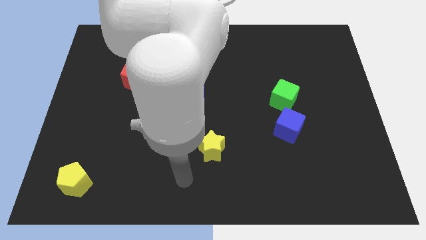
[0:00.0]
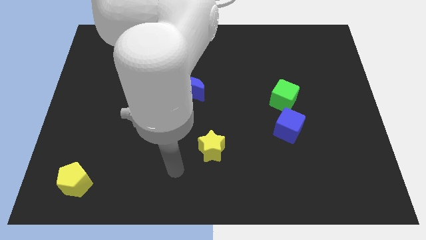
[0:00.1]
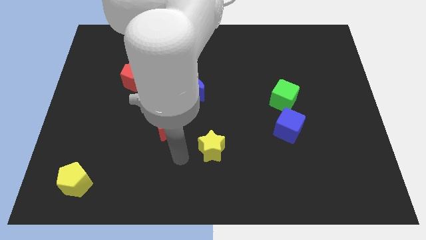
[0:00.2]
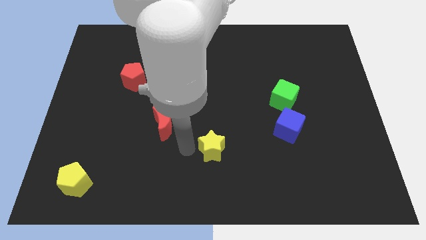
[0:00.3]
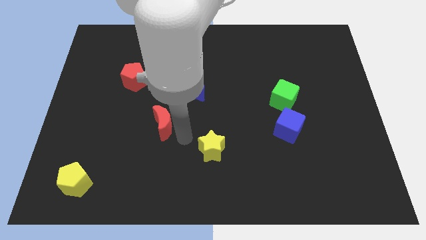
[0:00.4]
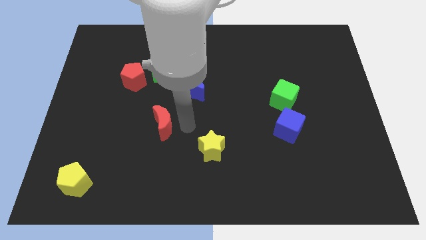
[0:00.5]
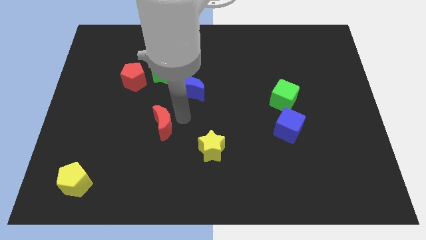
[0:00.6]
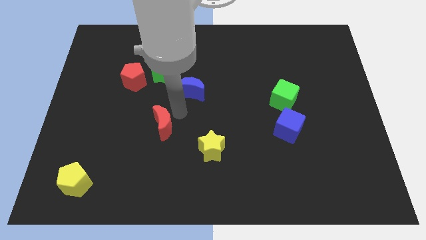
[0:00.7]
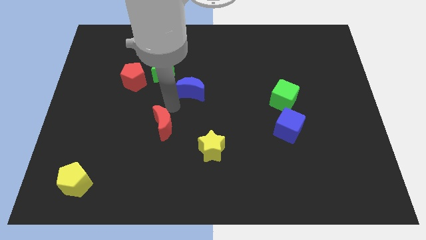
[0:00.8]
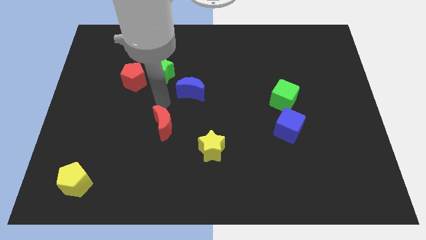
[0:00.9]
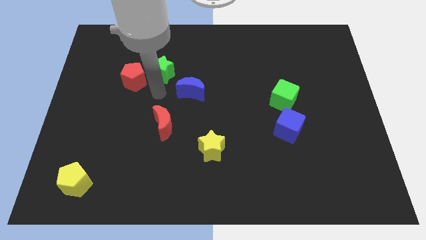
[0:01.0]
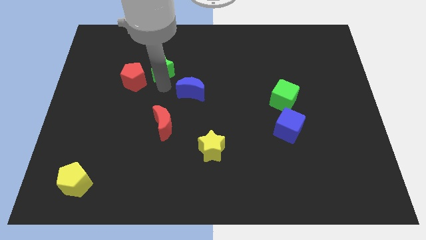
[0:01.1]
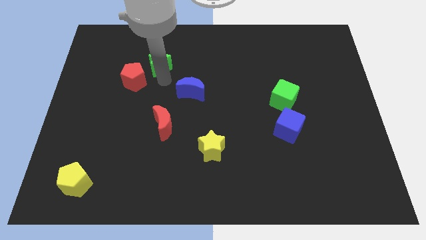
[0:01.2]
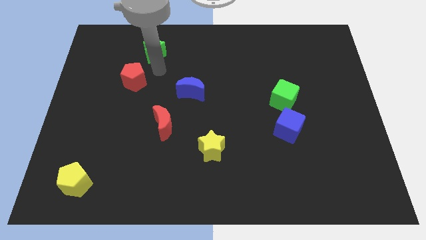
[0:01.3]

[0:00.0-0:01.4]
pull the red pentagon apart from the green star

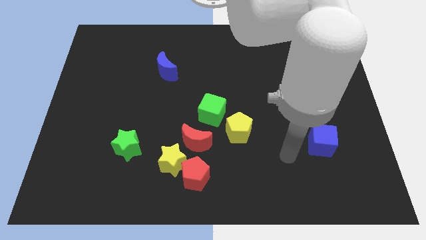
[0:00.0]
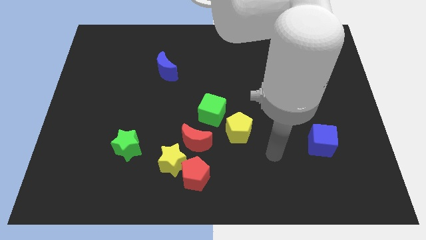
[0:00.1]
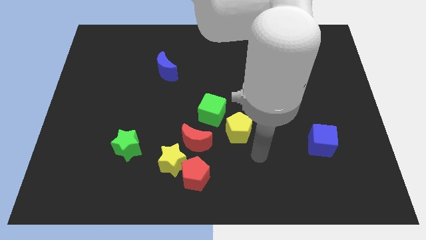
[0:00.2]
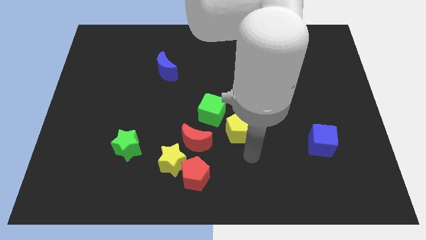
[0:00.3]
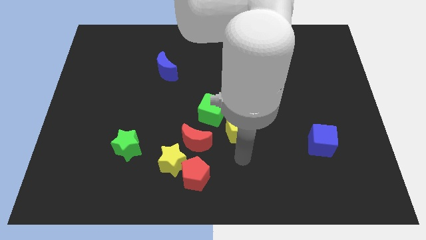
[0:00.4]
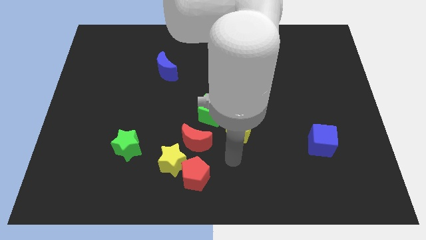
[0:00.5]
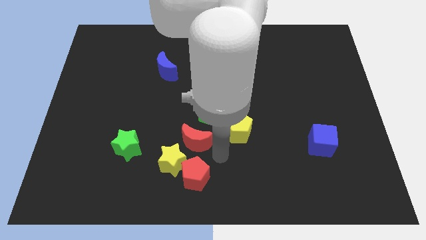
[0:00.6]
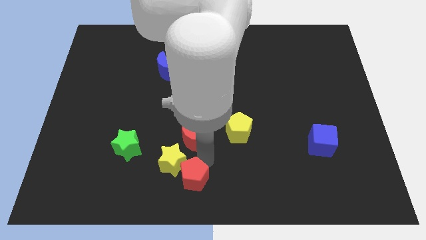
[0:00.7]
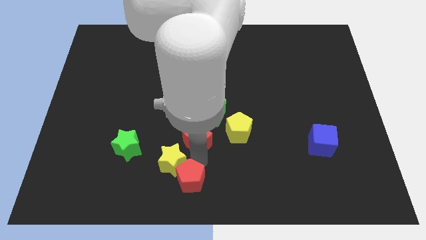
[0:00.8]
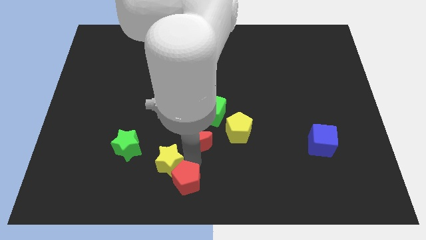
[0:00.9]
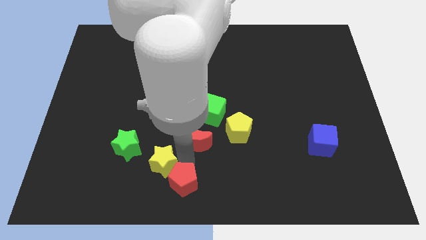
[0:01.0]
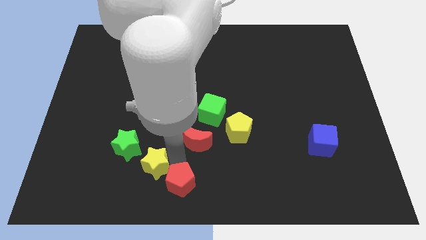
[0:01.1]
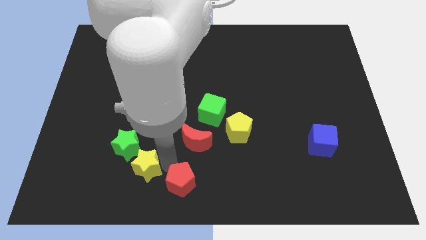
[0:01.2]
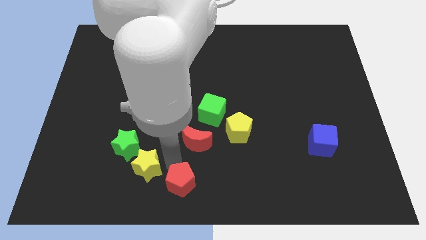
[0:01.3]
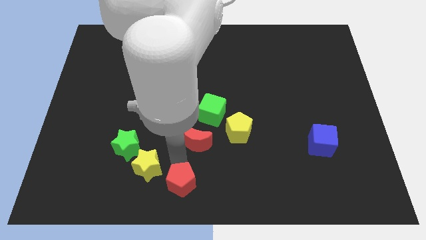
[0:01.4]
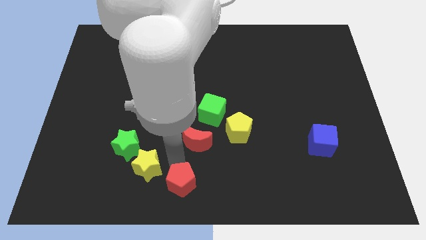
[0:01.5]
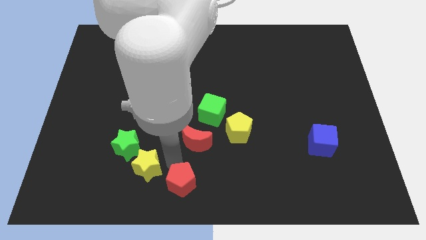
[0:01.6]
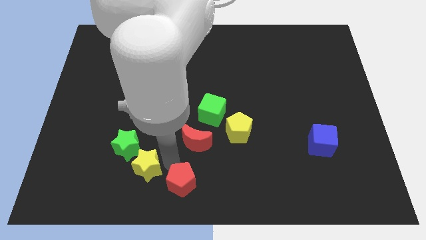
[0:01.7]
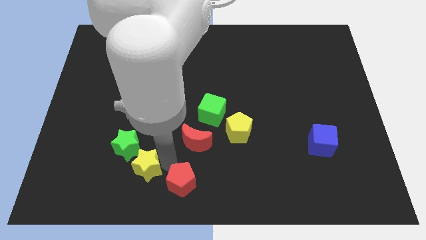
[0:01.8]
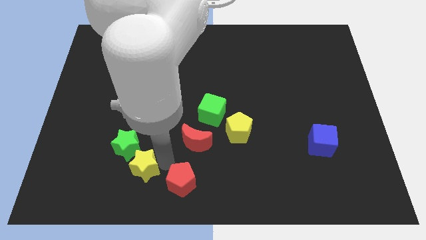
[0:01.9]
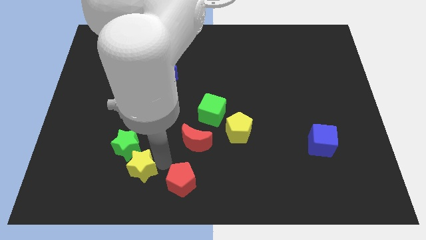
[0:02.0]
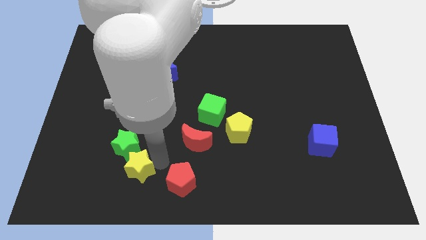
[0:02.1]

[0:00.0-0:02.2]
separate the yellow star from the red pentagon and red moon

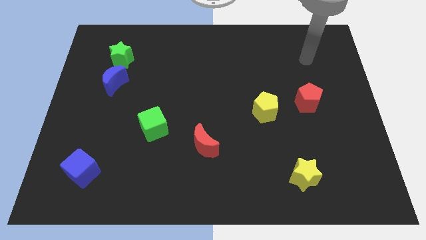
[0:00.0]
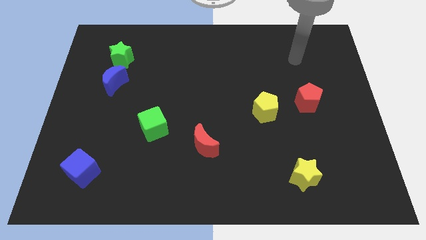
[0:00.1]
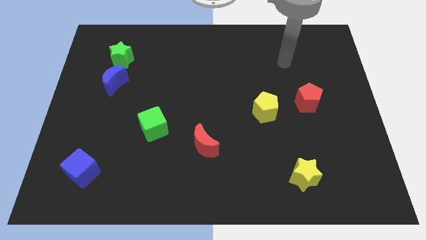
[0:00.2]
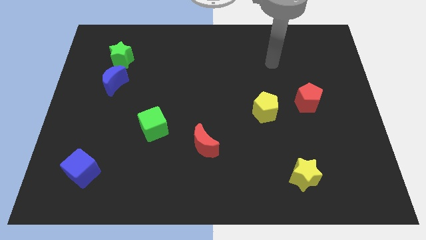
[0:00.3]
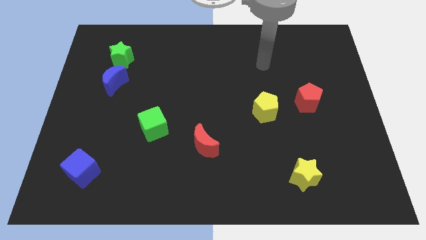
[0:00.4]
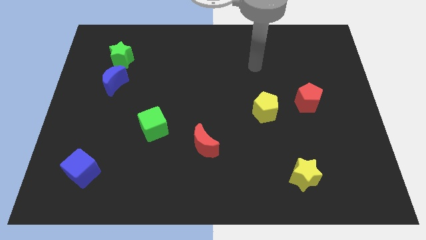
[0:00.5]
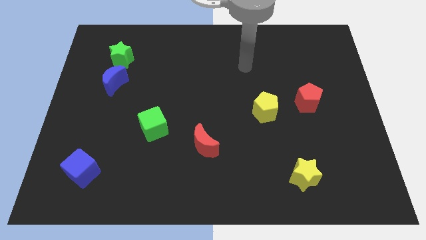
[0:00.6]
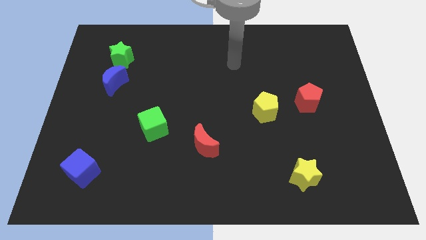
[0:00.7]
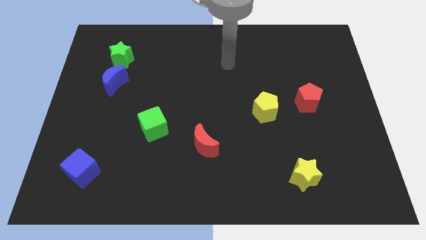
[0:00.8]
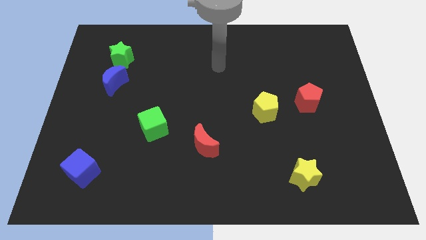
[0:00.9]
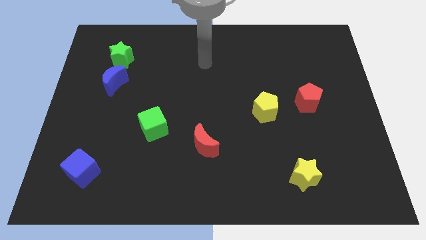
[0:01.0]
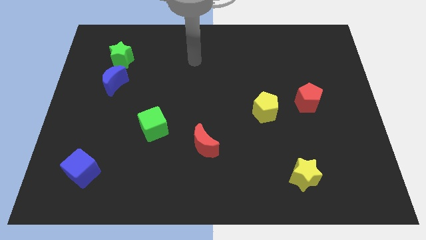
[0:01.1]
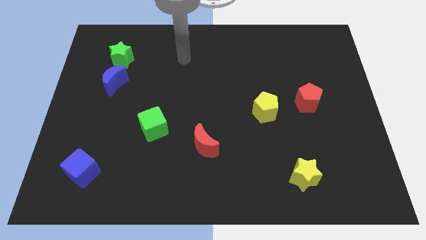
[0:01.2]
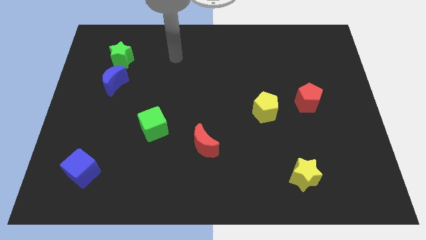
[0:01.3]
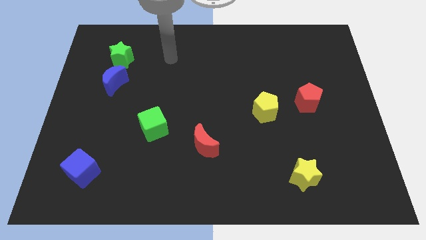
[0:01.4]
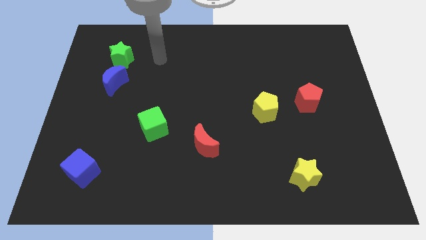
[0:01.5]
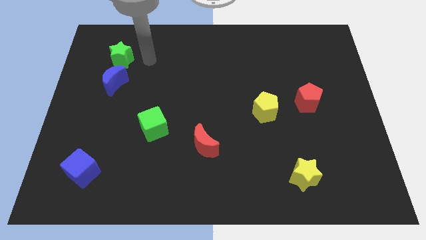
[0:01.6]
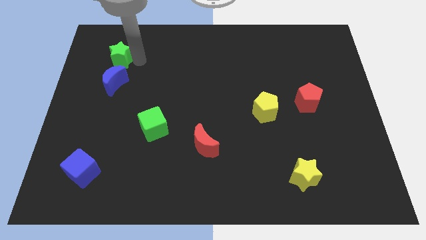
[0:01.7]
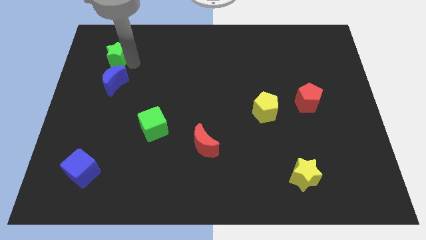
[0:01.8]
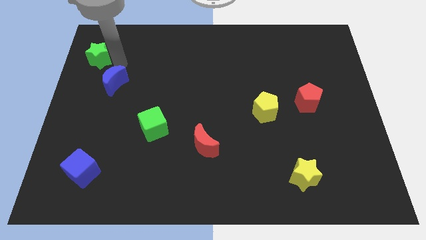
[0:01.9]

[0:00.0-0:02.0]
pull the blue moon apart from the green star

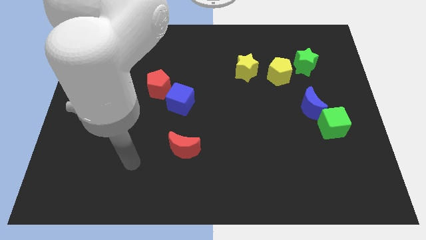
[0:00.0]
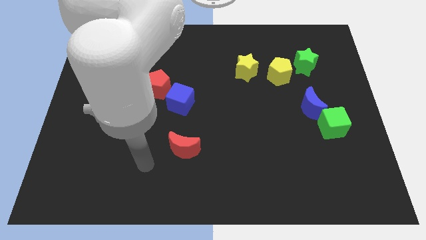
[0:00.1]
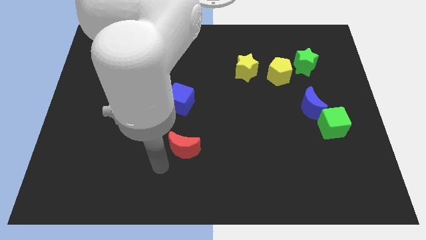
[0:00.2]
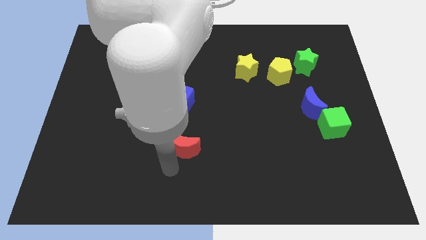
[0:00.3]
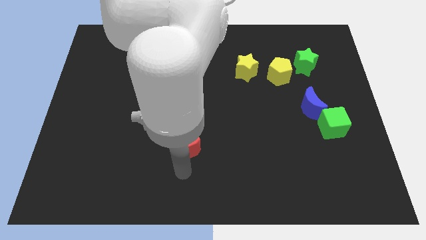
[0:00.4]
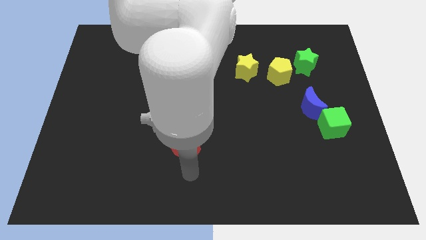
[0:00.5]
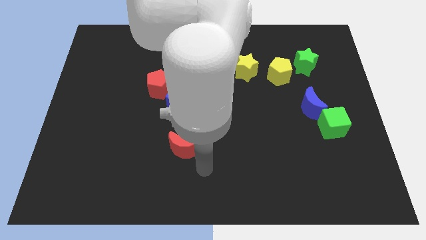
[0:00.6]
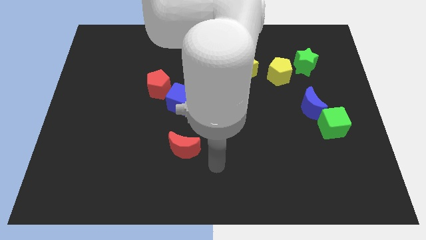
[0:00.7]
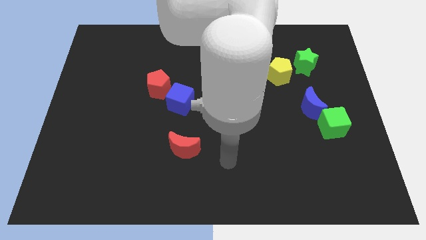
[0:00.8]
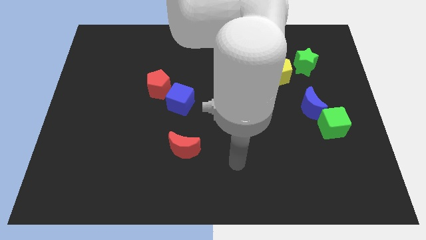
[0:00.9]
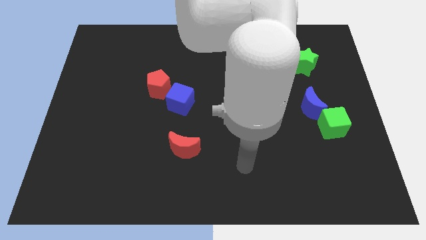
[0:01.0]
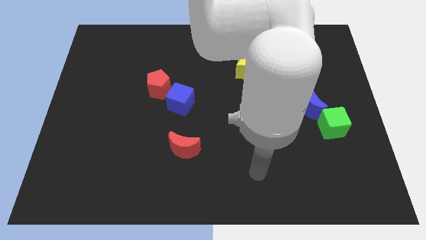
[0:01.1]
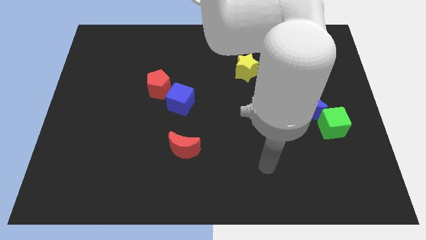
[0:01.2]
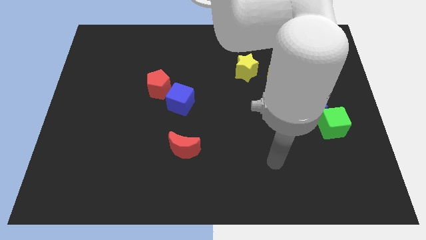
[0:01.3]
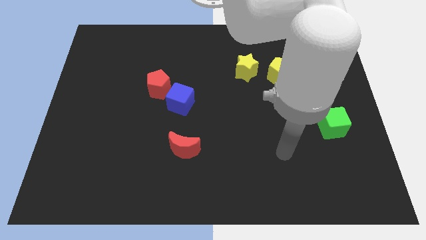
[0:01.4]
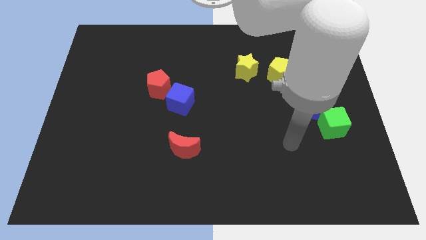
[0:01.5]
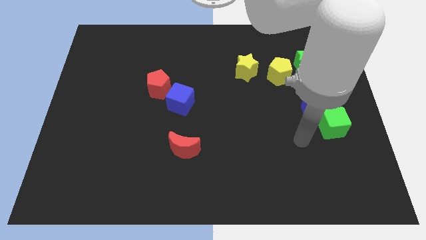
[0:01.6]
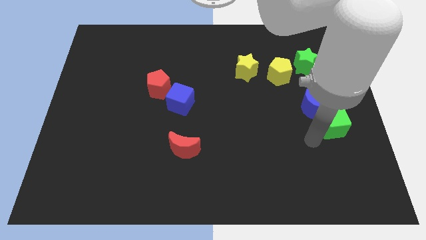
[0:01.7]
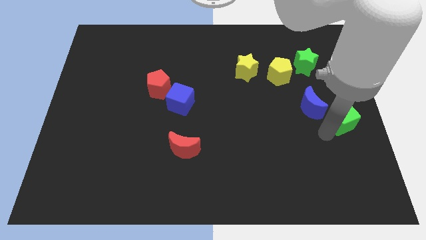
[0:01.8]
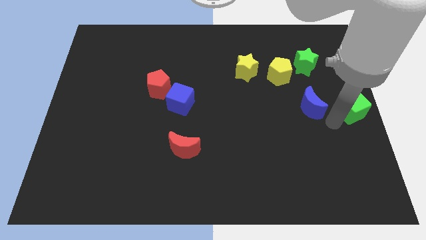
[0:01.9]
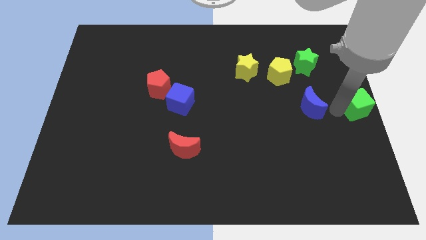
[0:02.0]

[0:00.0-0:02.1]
separate the blue moon from the green cube

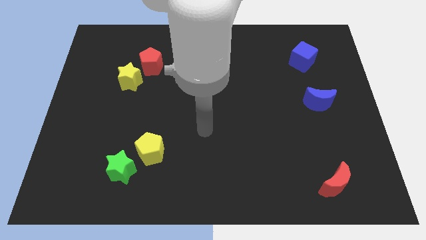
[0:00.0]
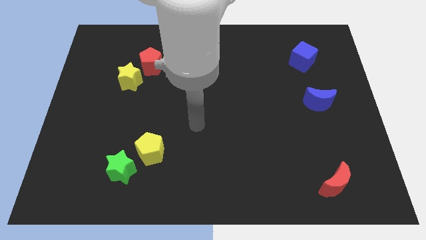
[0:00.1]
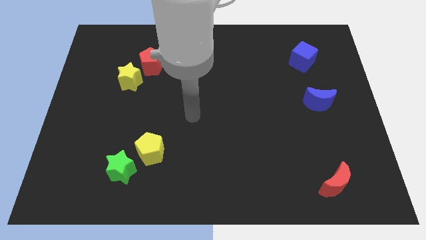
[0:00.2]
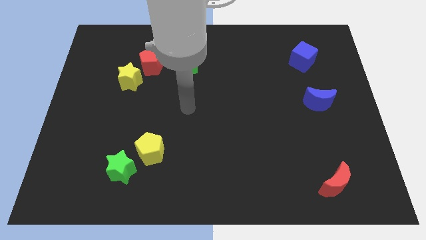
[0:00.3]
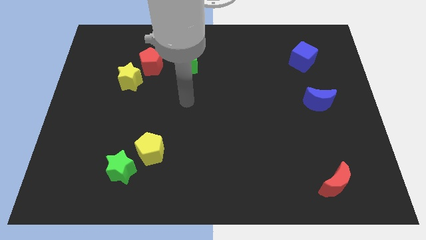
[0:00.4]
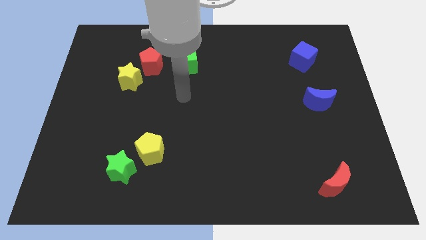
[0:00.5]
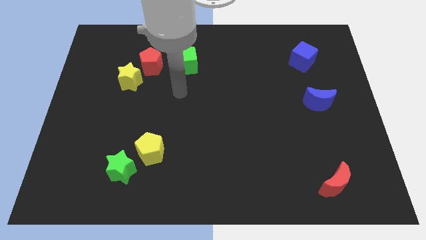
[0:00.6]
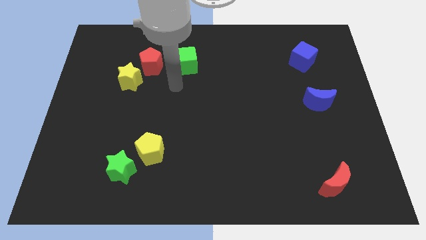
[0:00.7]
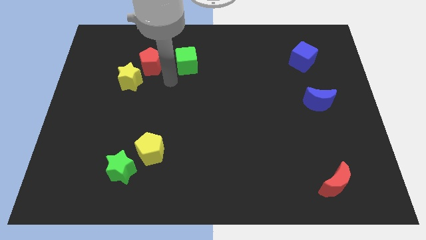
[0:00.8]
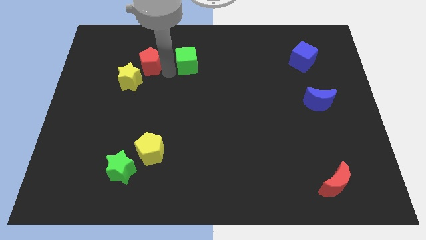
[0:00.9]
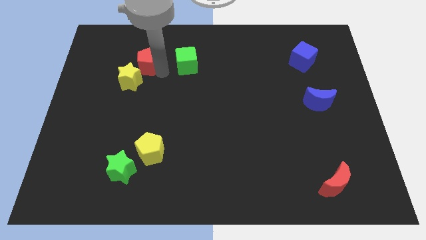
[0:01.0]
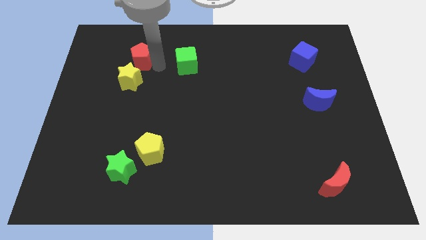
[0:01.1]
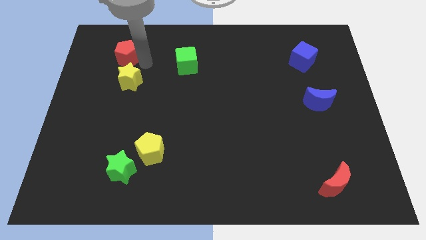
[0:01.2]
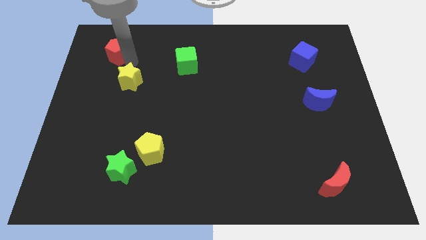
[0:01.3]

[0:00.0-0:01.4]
move the yellow star away from the red pentagon

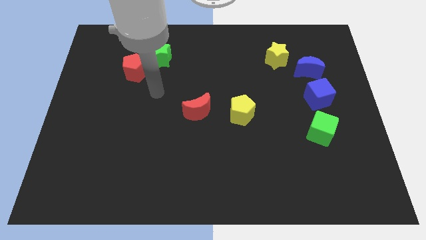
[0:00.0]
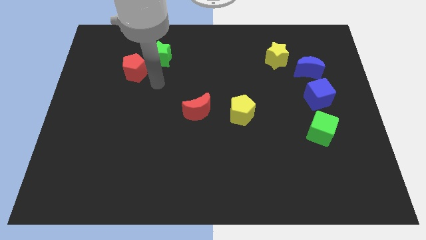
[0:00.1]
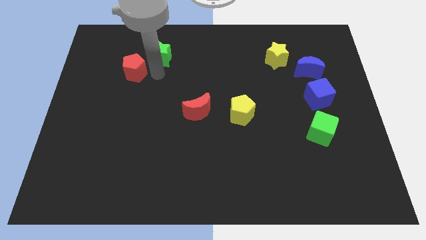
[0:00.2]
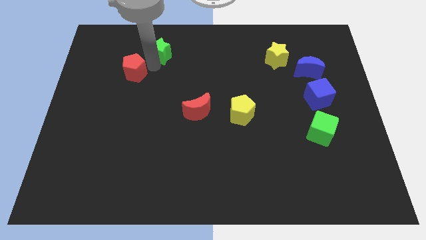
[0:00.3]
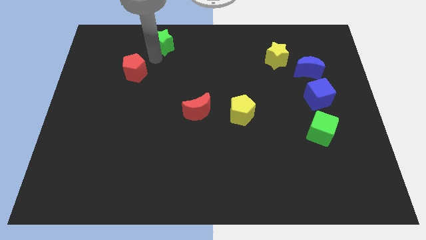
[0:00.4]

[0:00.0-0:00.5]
move the red pentagon away from the green star
